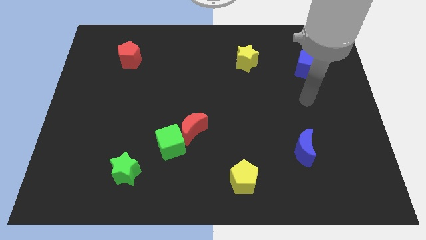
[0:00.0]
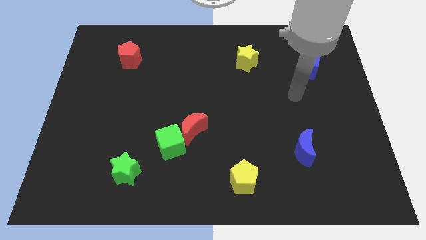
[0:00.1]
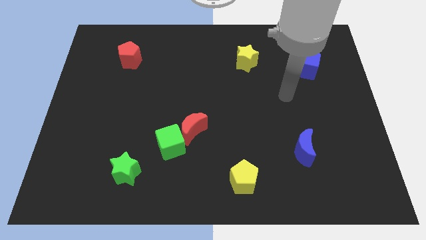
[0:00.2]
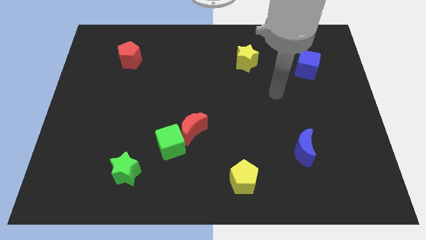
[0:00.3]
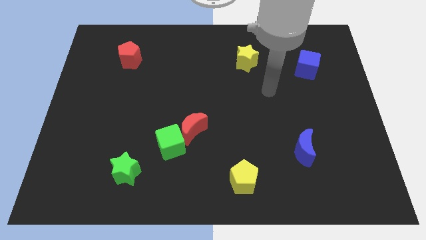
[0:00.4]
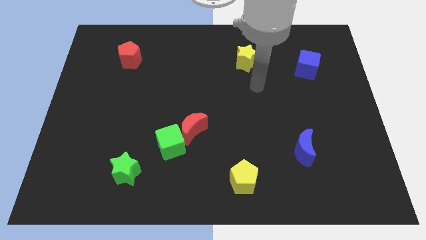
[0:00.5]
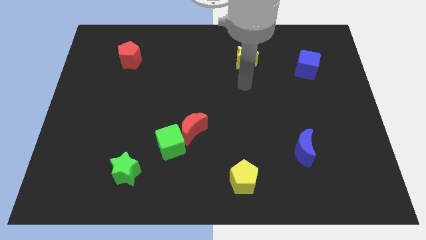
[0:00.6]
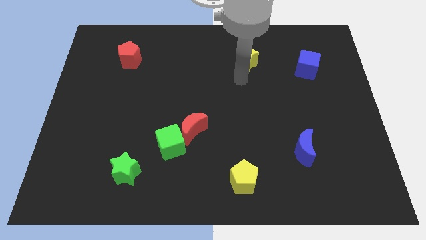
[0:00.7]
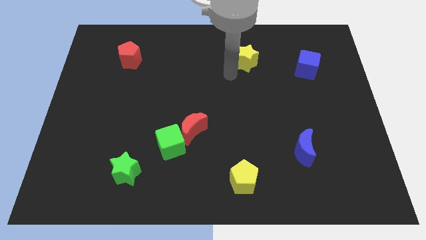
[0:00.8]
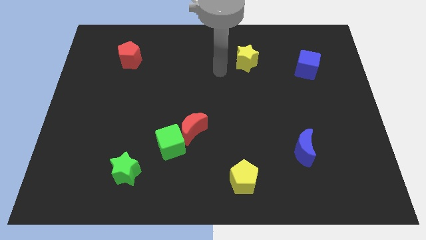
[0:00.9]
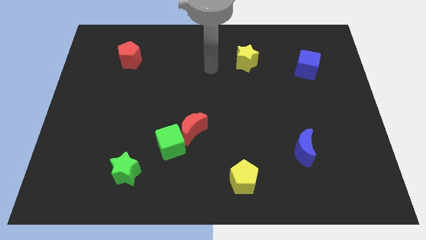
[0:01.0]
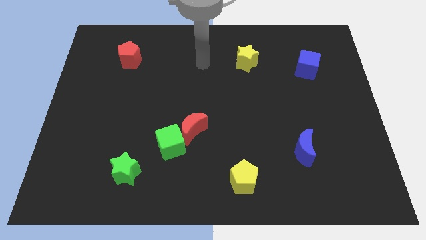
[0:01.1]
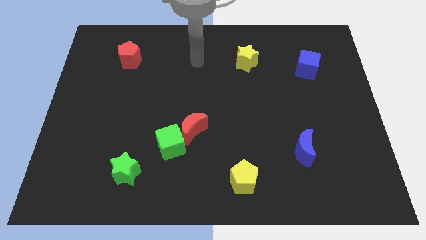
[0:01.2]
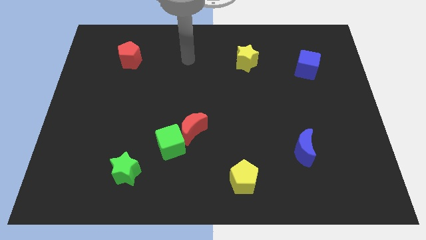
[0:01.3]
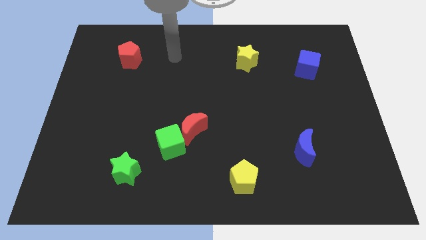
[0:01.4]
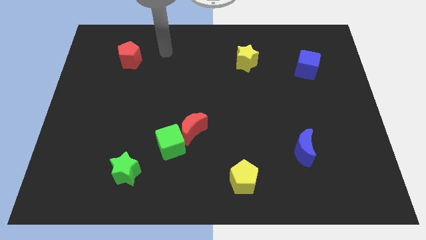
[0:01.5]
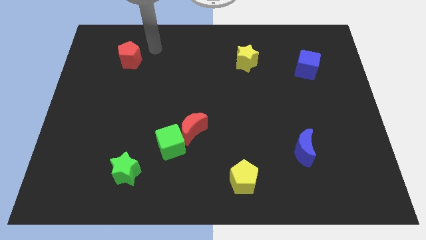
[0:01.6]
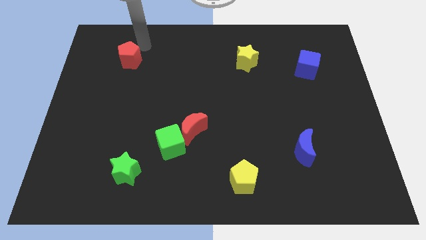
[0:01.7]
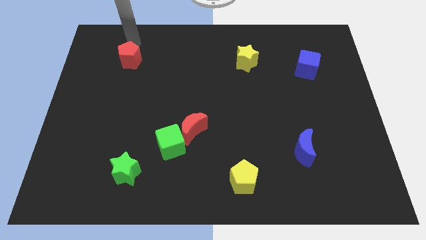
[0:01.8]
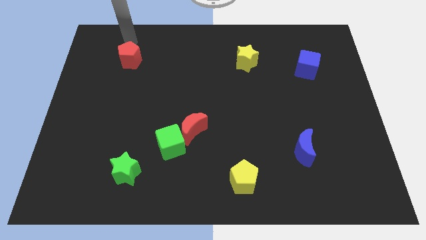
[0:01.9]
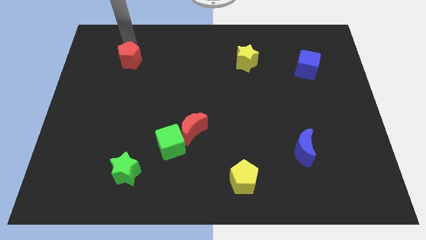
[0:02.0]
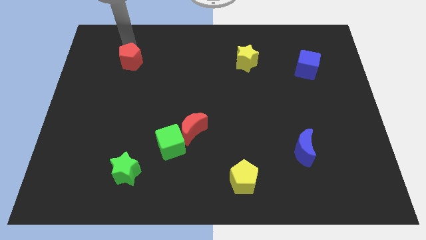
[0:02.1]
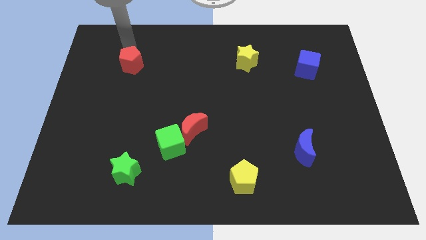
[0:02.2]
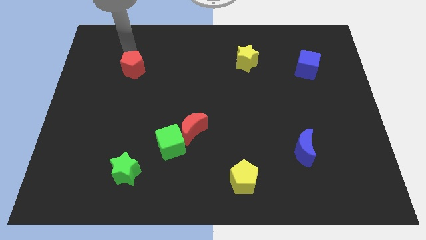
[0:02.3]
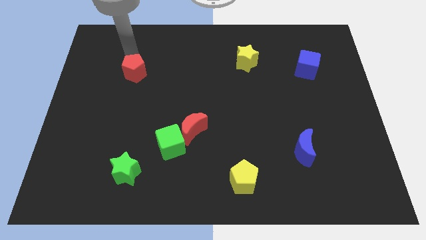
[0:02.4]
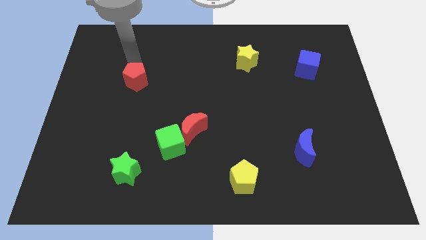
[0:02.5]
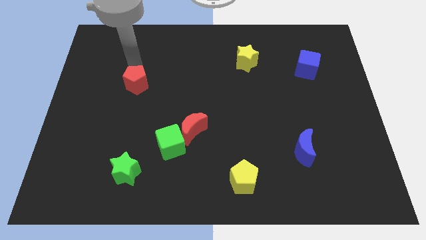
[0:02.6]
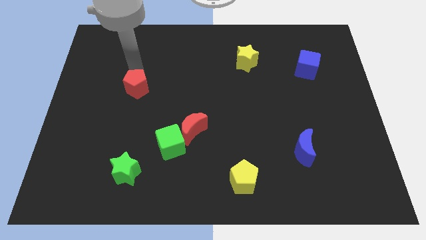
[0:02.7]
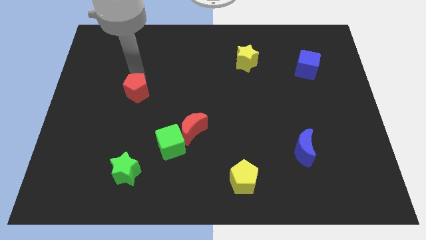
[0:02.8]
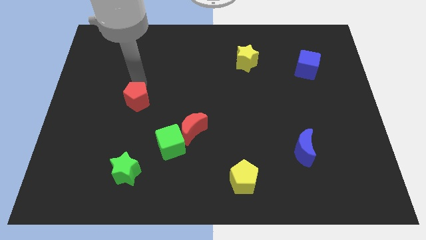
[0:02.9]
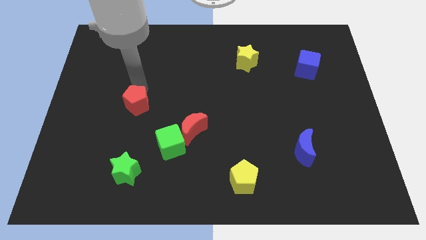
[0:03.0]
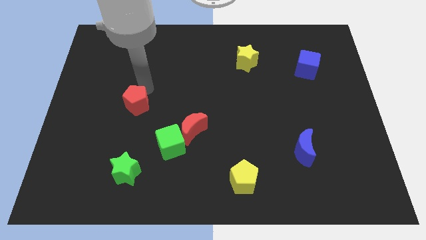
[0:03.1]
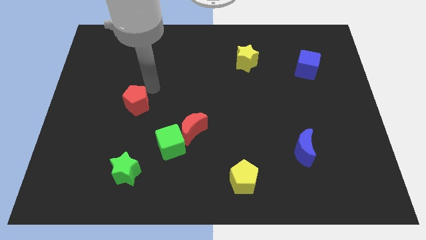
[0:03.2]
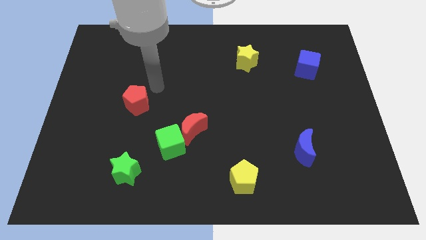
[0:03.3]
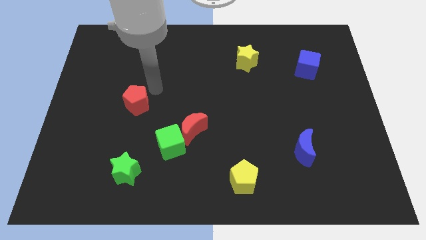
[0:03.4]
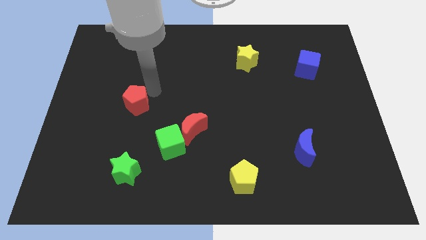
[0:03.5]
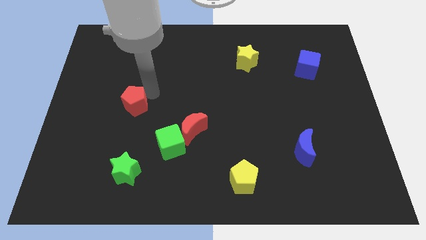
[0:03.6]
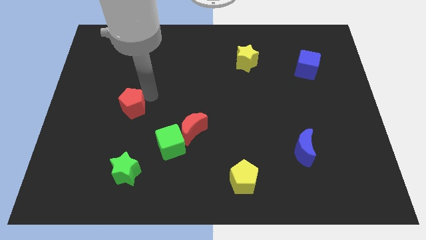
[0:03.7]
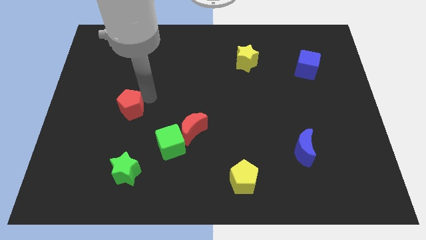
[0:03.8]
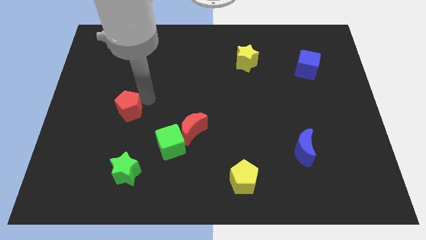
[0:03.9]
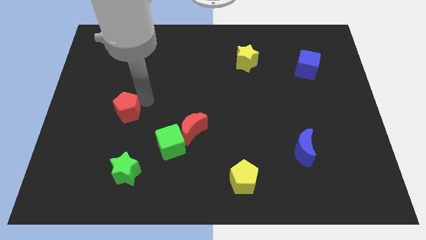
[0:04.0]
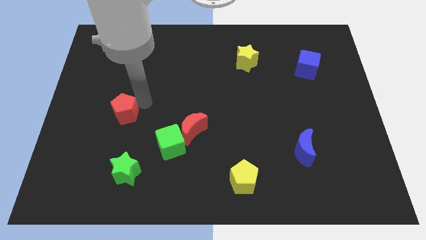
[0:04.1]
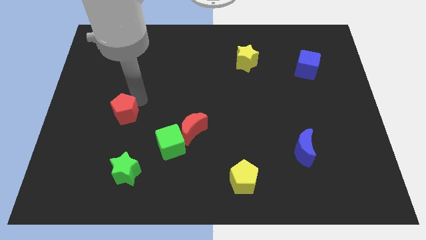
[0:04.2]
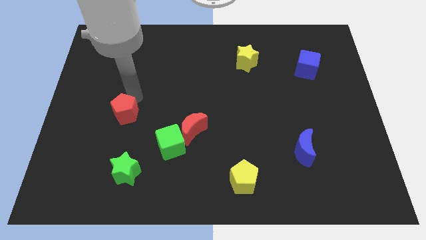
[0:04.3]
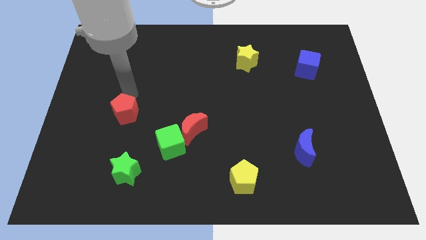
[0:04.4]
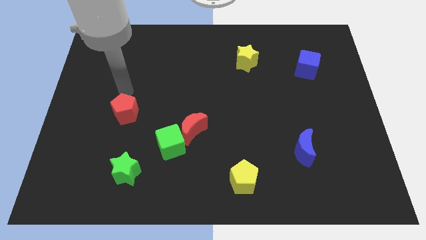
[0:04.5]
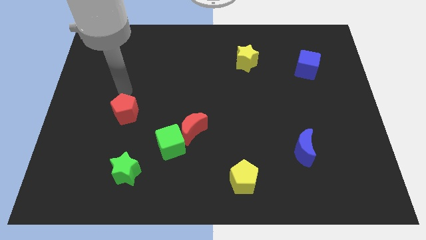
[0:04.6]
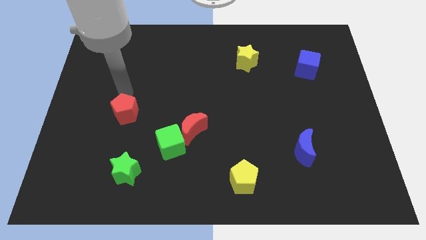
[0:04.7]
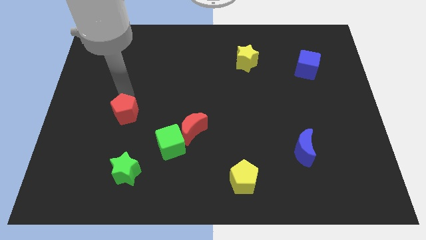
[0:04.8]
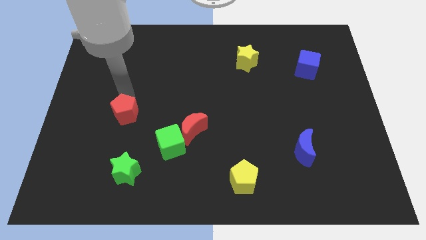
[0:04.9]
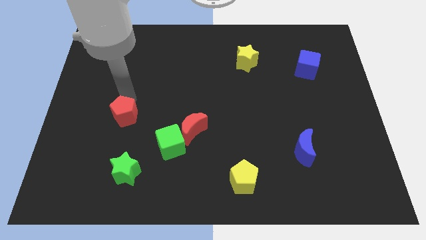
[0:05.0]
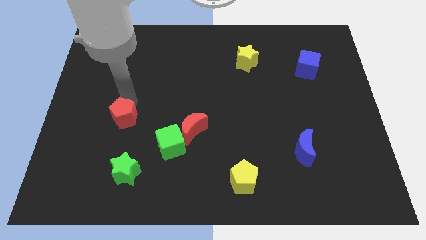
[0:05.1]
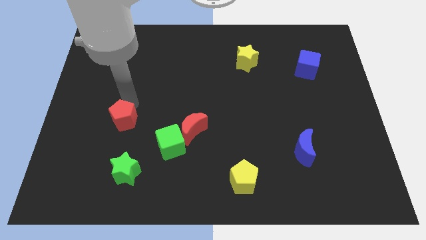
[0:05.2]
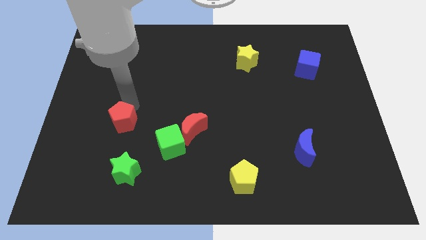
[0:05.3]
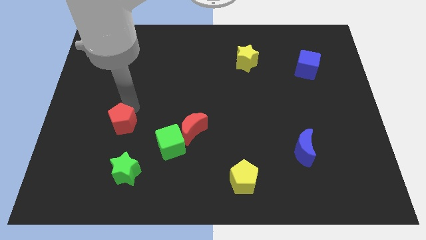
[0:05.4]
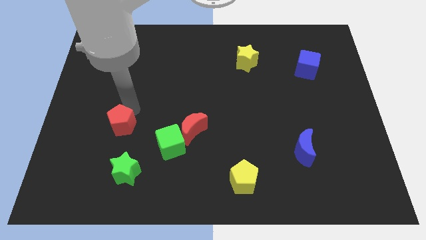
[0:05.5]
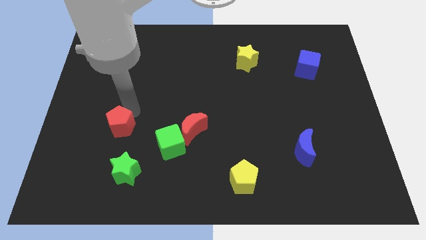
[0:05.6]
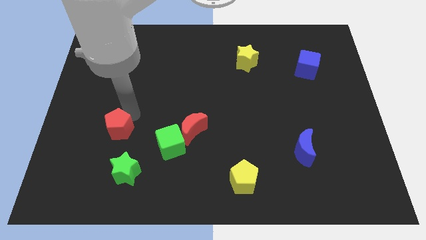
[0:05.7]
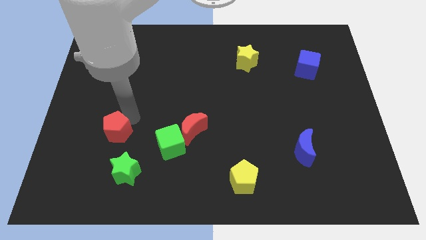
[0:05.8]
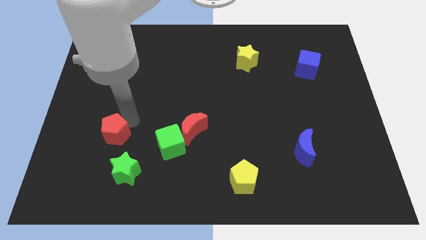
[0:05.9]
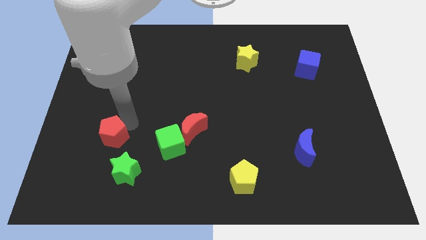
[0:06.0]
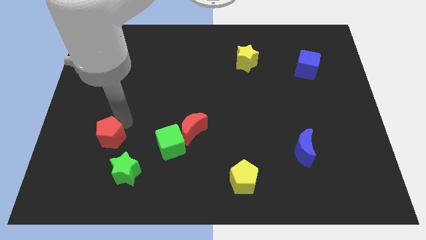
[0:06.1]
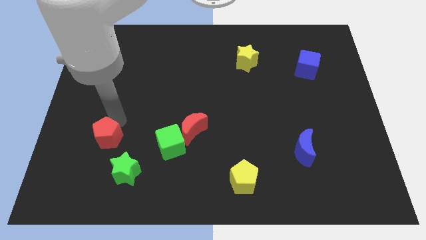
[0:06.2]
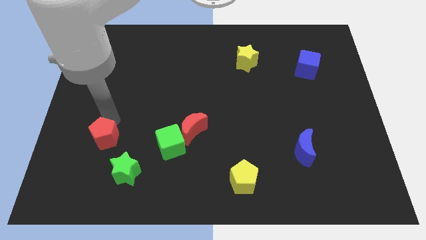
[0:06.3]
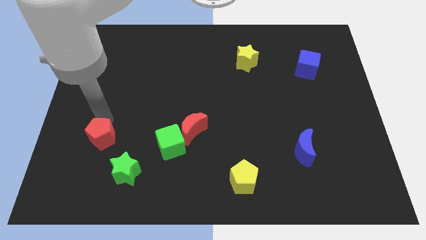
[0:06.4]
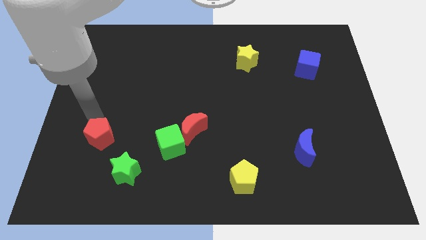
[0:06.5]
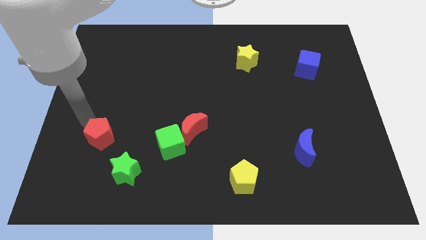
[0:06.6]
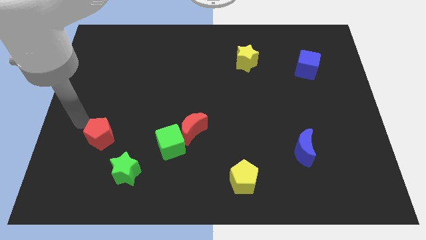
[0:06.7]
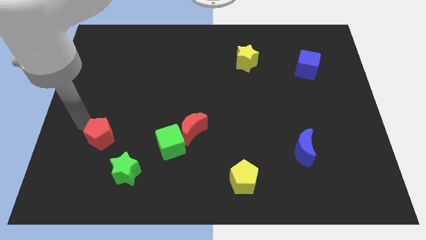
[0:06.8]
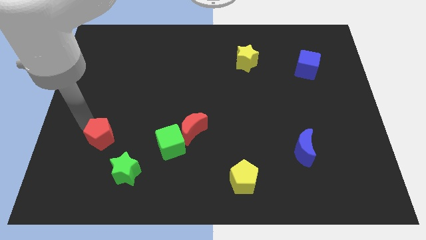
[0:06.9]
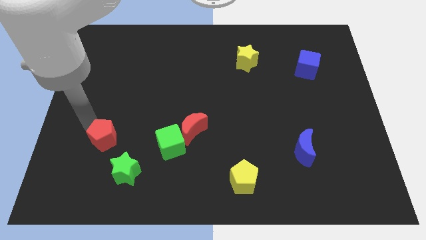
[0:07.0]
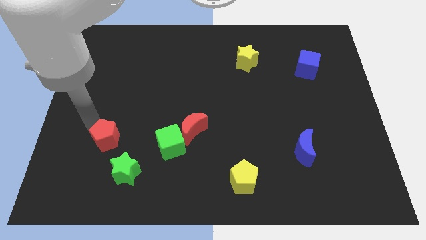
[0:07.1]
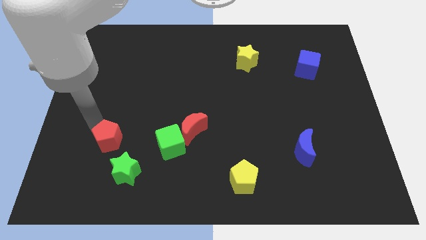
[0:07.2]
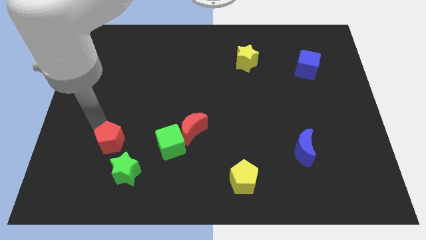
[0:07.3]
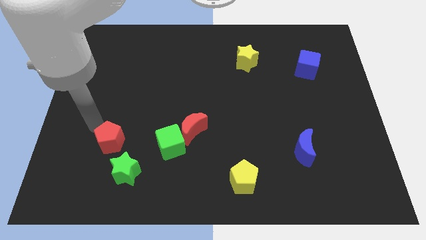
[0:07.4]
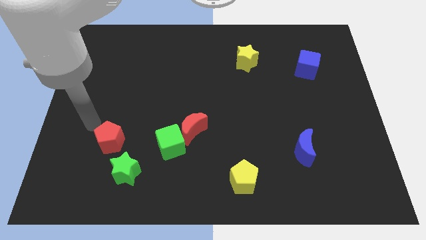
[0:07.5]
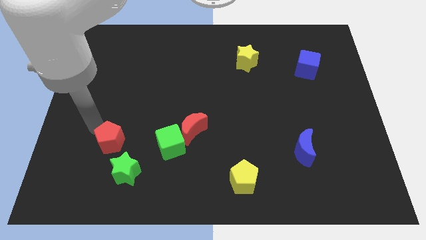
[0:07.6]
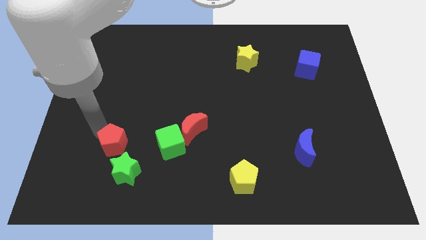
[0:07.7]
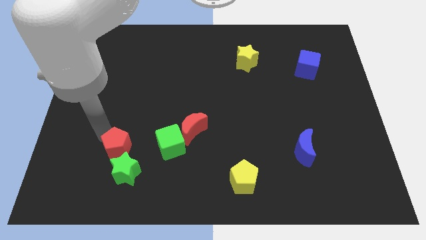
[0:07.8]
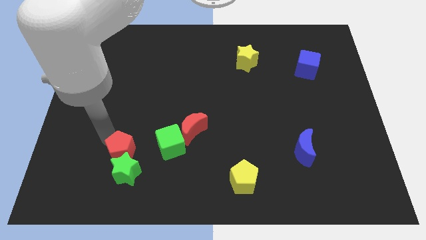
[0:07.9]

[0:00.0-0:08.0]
slide the red pentagon towards the green star
